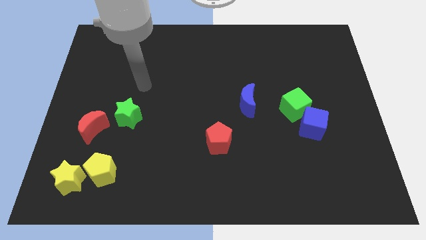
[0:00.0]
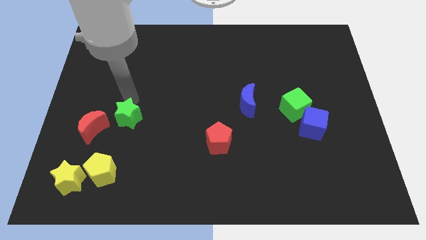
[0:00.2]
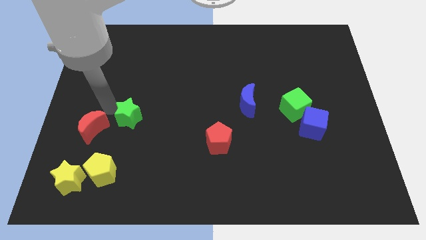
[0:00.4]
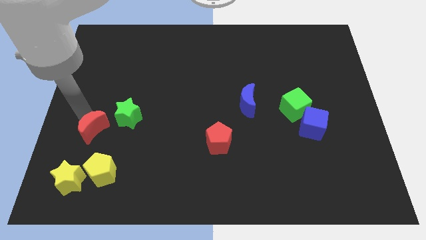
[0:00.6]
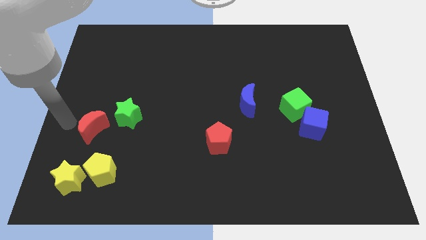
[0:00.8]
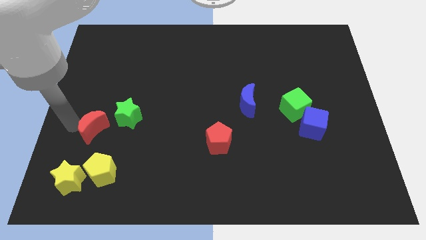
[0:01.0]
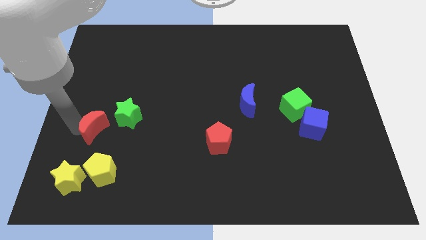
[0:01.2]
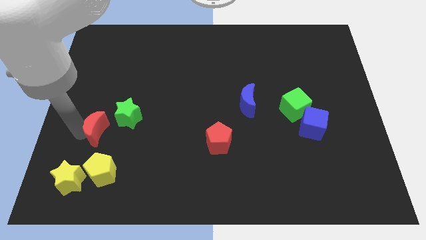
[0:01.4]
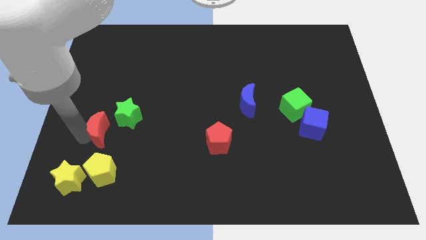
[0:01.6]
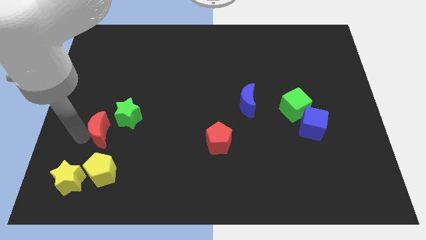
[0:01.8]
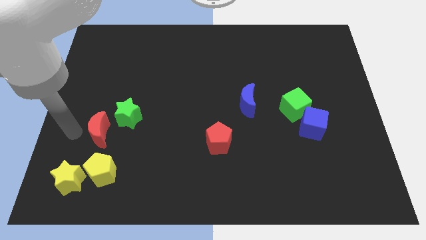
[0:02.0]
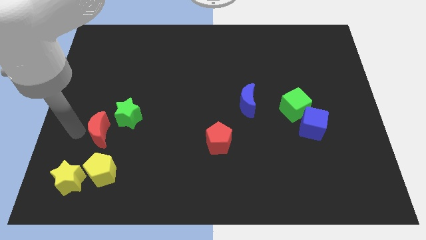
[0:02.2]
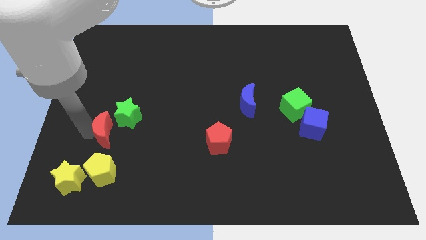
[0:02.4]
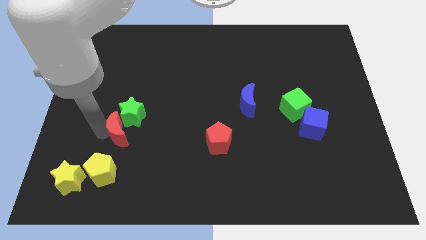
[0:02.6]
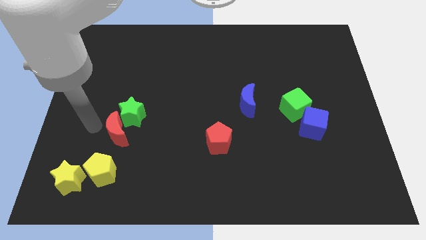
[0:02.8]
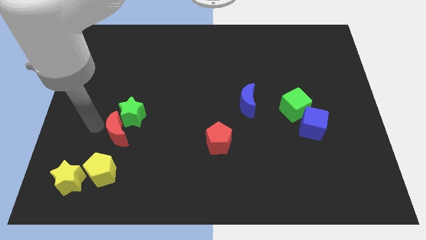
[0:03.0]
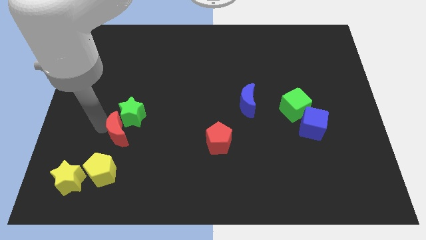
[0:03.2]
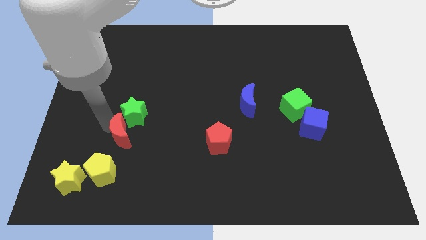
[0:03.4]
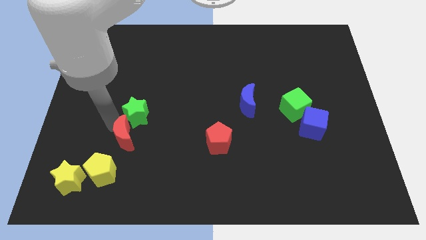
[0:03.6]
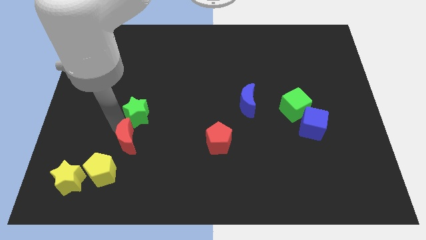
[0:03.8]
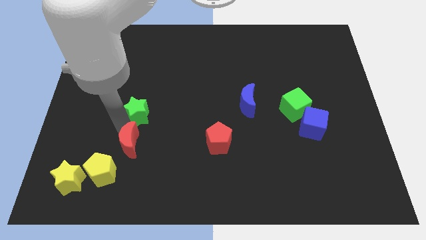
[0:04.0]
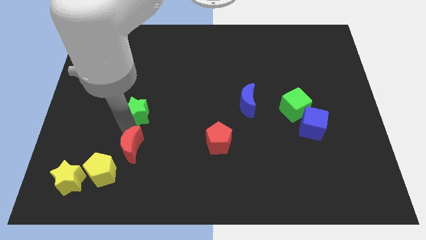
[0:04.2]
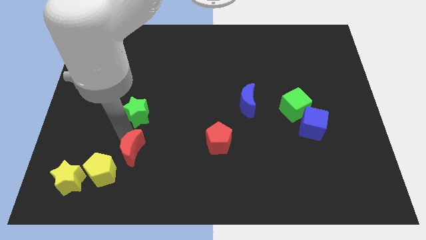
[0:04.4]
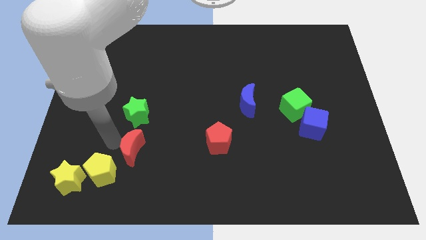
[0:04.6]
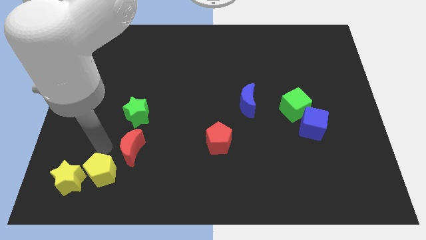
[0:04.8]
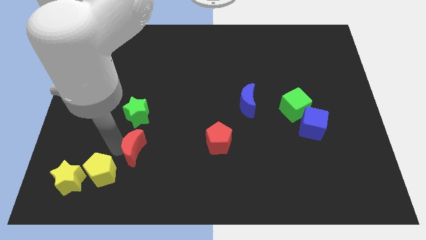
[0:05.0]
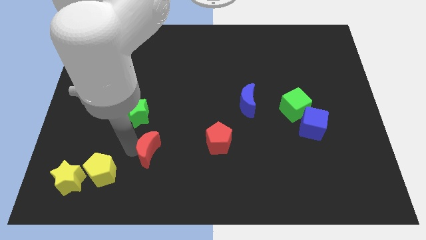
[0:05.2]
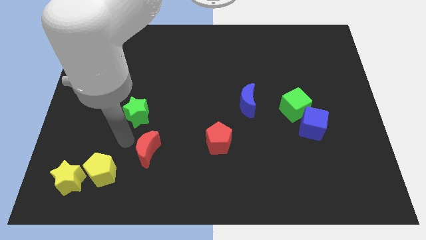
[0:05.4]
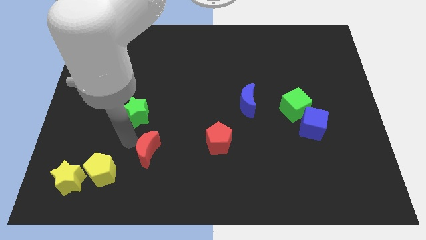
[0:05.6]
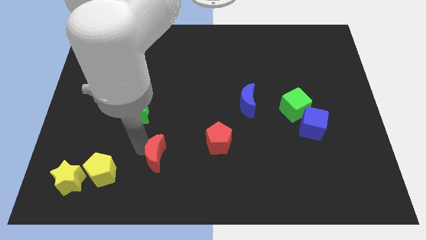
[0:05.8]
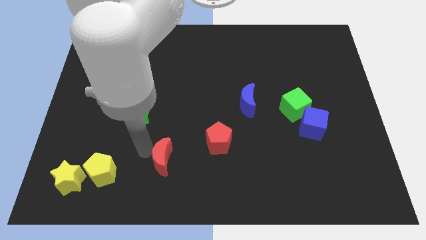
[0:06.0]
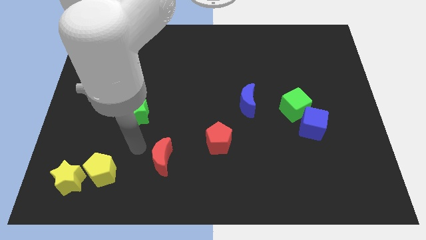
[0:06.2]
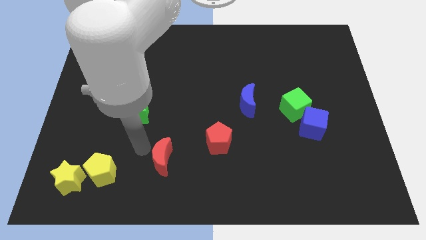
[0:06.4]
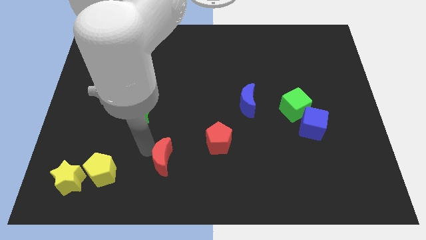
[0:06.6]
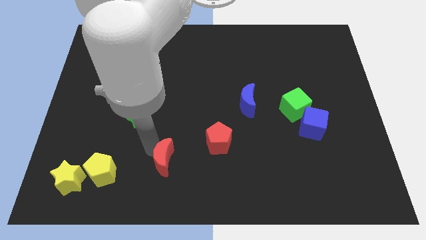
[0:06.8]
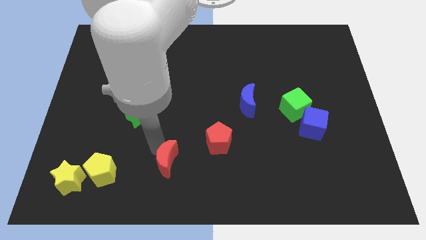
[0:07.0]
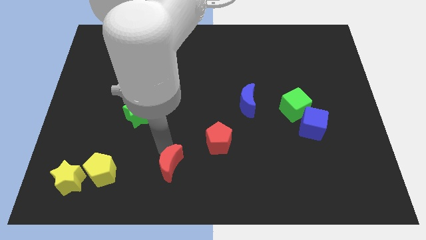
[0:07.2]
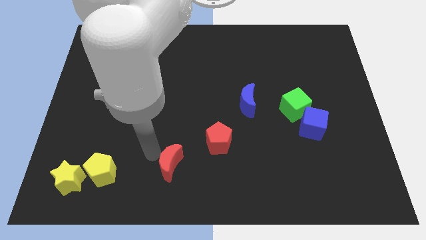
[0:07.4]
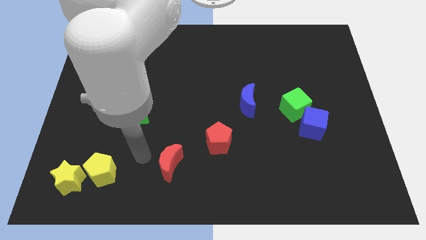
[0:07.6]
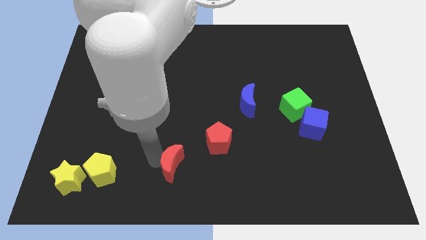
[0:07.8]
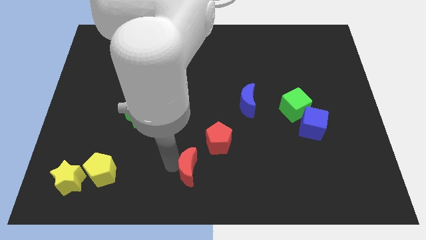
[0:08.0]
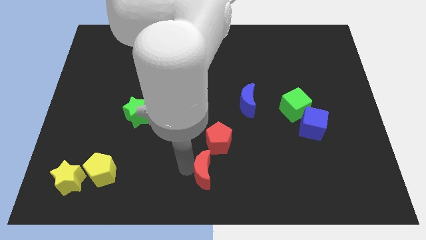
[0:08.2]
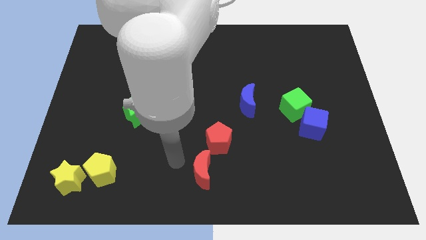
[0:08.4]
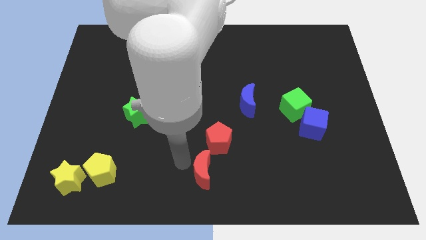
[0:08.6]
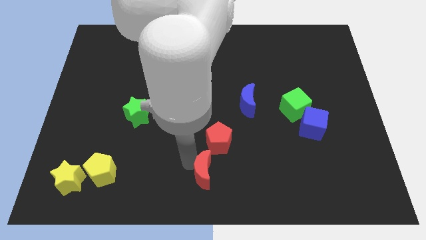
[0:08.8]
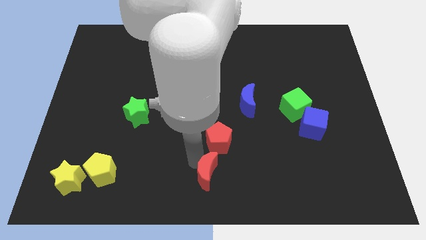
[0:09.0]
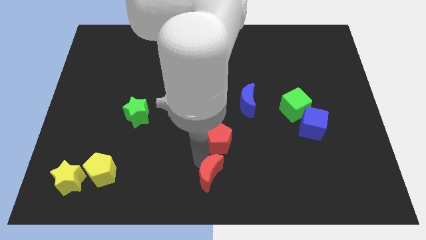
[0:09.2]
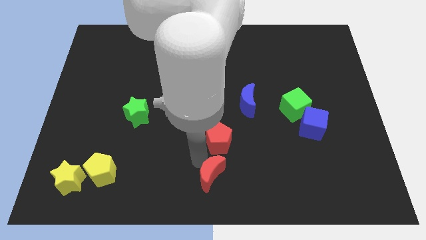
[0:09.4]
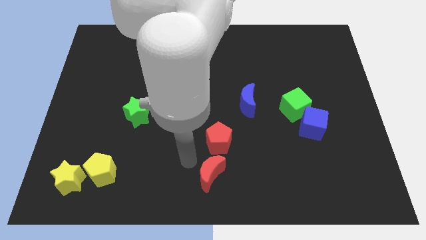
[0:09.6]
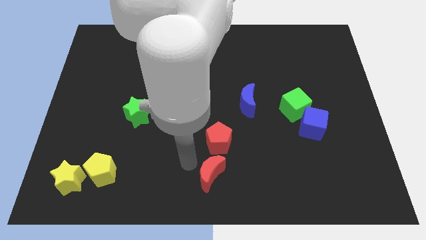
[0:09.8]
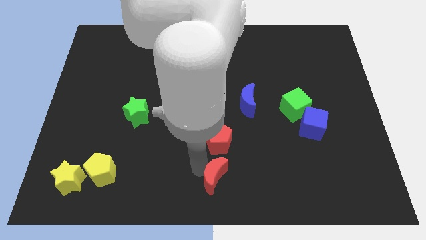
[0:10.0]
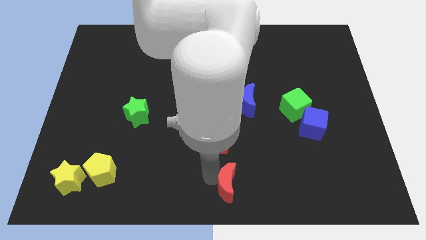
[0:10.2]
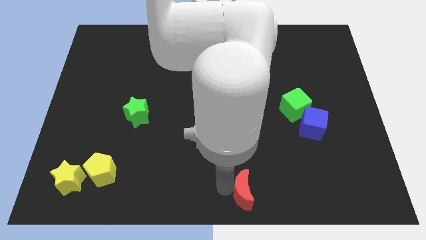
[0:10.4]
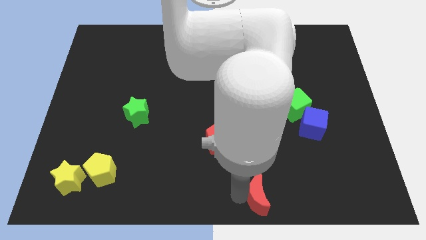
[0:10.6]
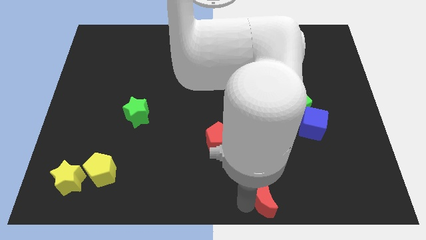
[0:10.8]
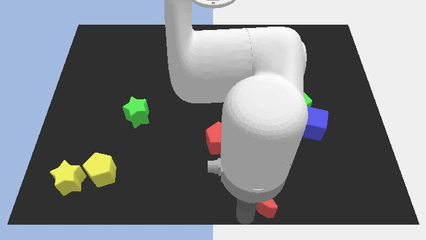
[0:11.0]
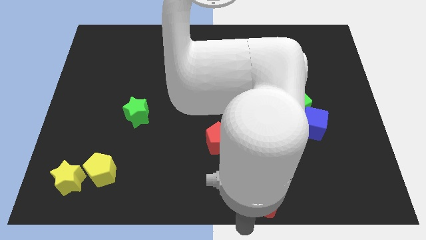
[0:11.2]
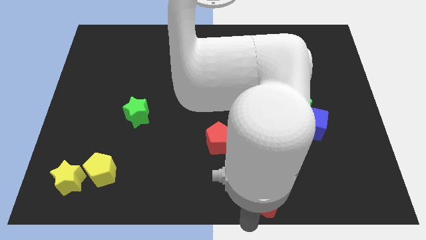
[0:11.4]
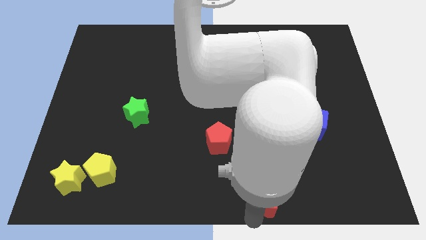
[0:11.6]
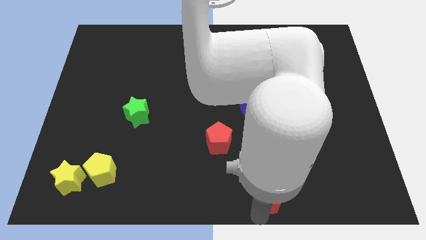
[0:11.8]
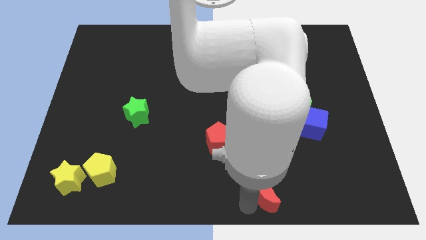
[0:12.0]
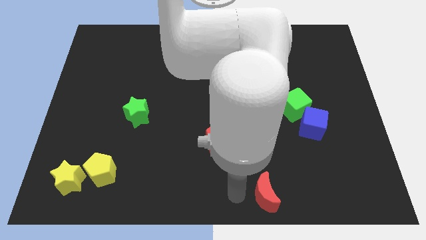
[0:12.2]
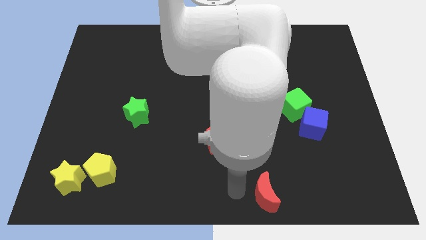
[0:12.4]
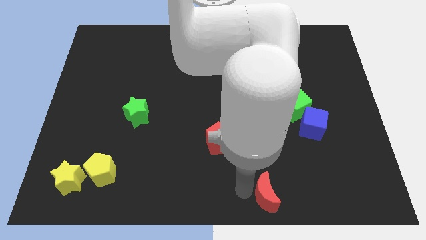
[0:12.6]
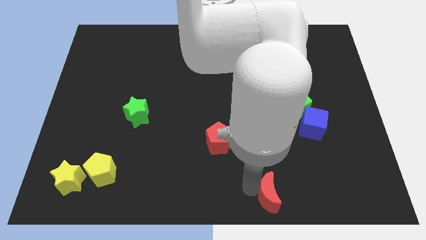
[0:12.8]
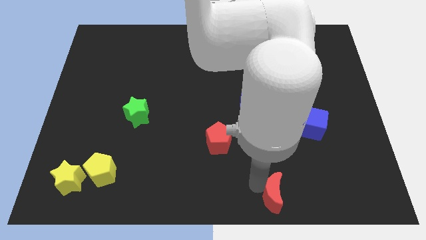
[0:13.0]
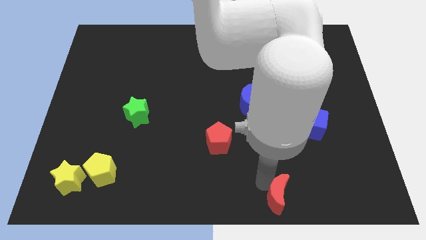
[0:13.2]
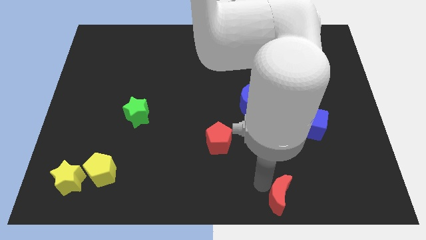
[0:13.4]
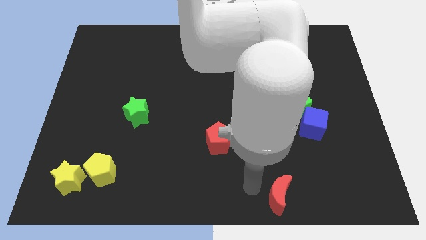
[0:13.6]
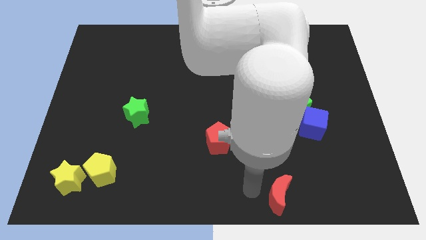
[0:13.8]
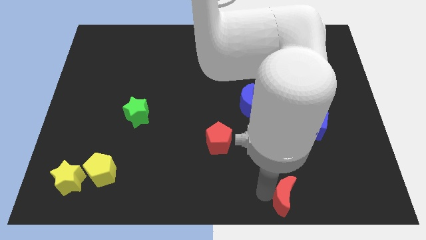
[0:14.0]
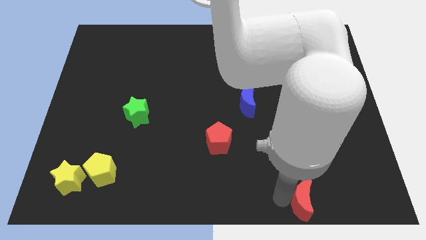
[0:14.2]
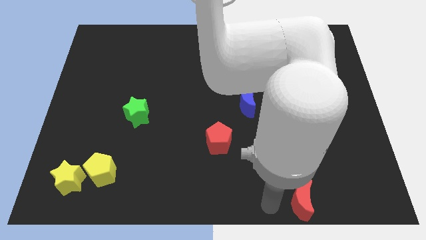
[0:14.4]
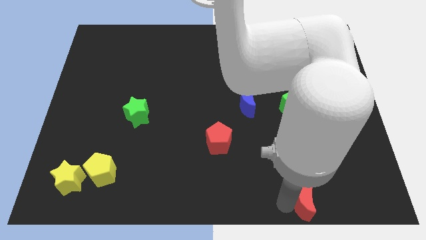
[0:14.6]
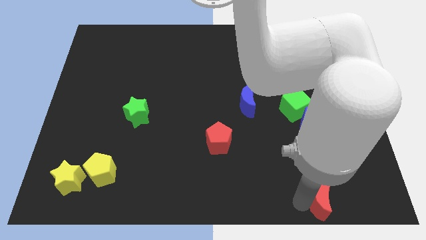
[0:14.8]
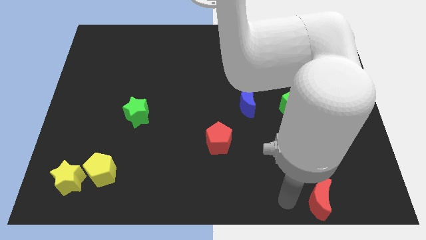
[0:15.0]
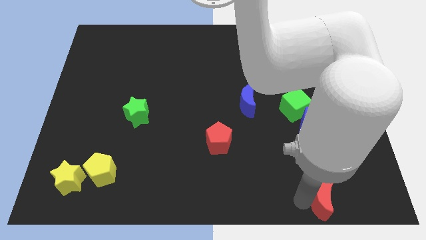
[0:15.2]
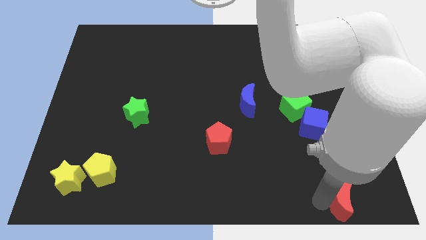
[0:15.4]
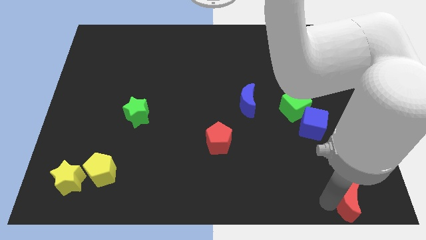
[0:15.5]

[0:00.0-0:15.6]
push the red moon to the bottom right
